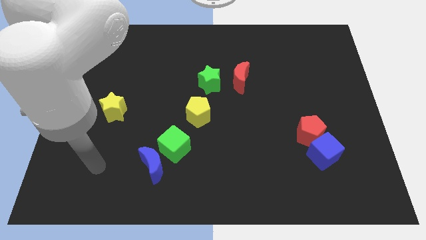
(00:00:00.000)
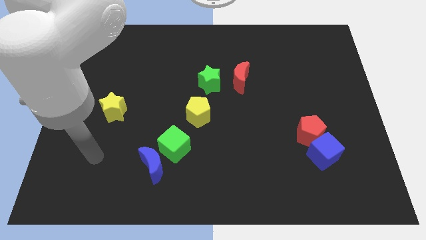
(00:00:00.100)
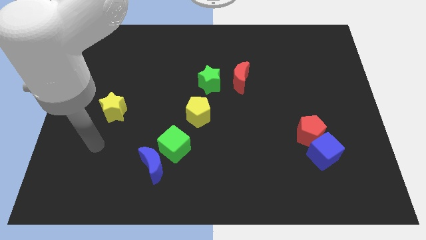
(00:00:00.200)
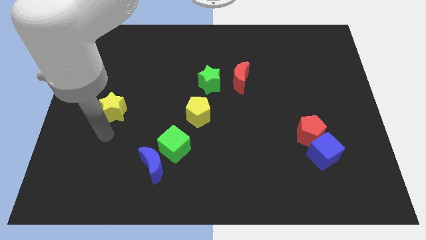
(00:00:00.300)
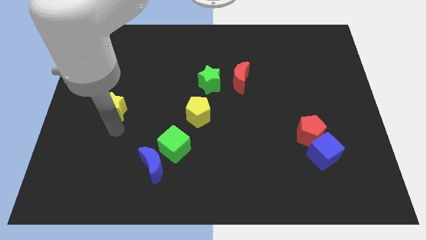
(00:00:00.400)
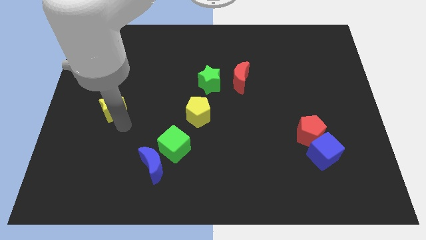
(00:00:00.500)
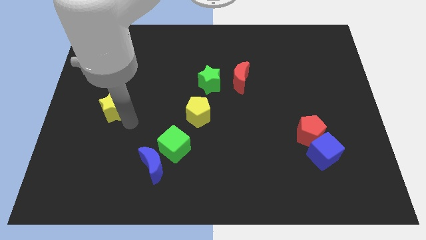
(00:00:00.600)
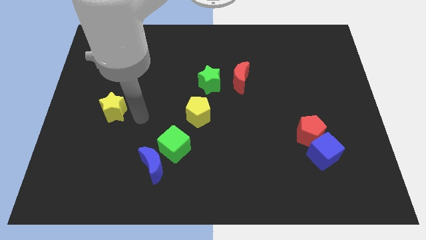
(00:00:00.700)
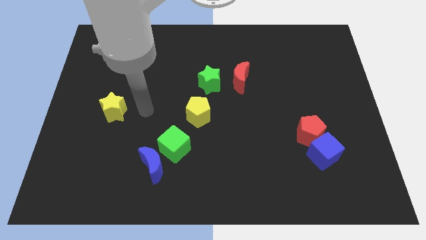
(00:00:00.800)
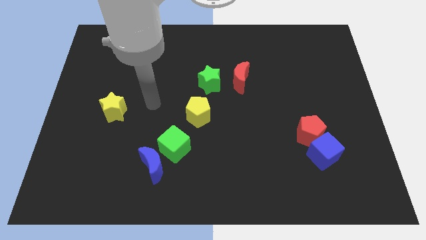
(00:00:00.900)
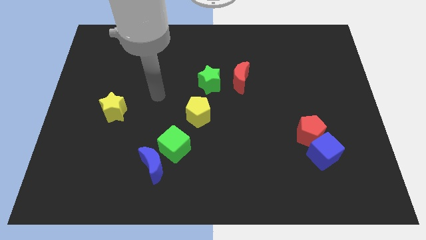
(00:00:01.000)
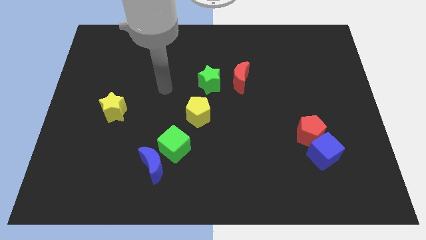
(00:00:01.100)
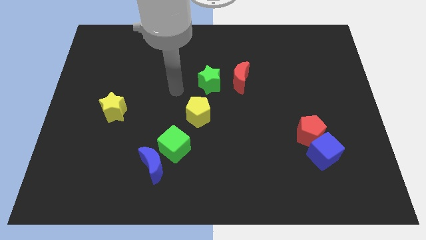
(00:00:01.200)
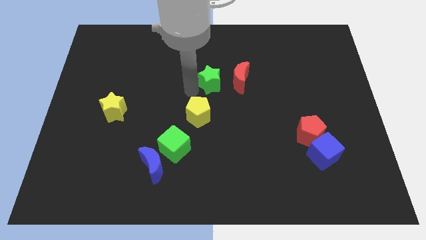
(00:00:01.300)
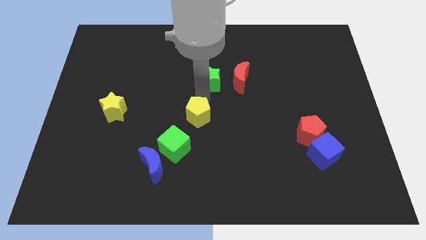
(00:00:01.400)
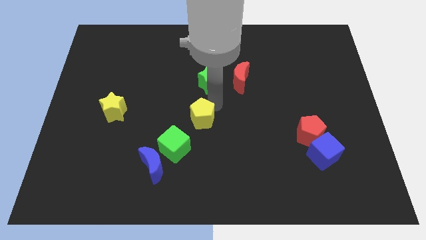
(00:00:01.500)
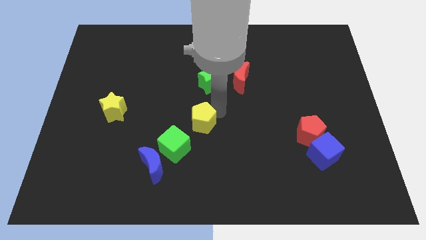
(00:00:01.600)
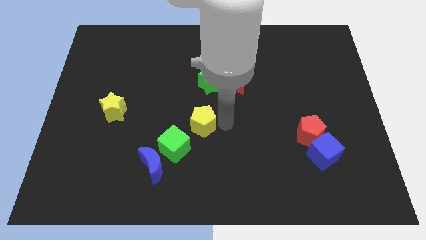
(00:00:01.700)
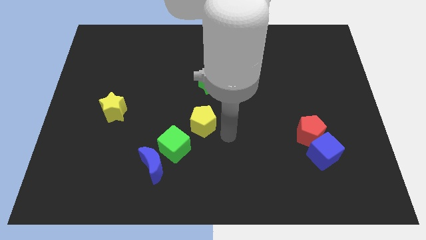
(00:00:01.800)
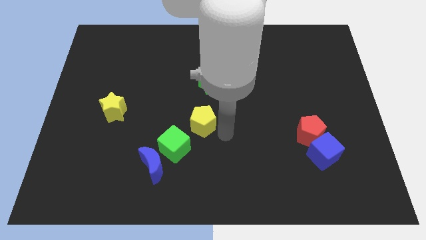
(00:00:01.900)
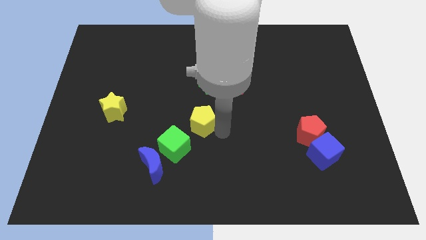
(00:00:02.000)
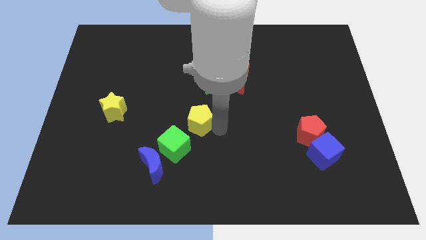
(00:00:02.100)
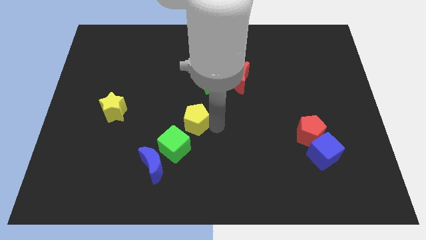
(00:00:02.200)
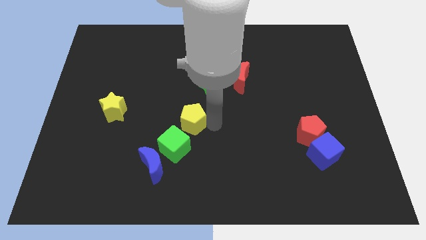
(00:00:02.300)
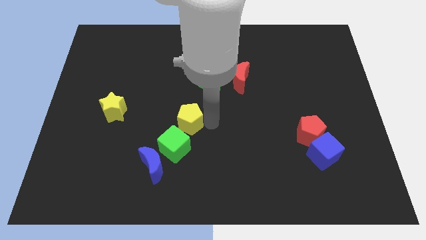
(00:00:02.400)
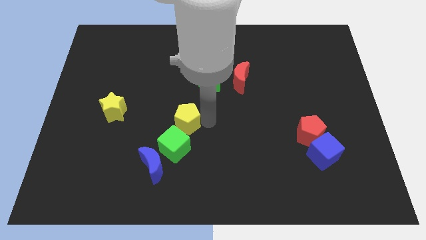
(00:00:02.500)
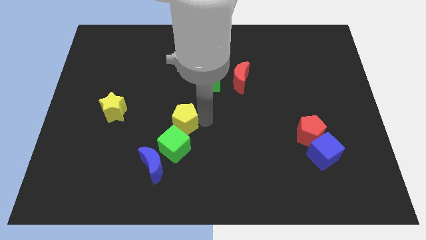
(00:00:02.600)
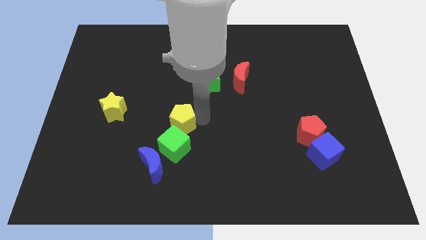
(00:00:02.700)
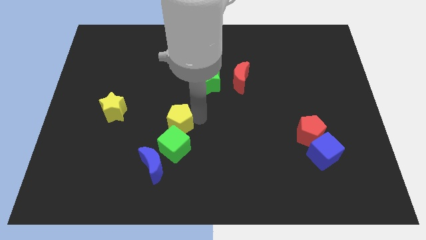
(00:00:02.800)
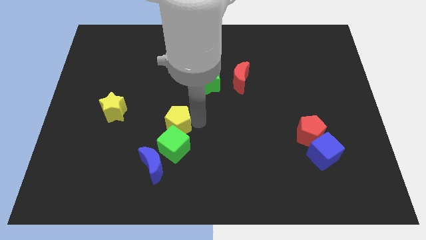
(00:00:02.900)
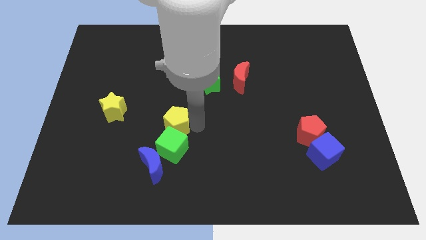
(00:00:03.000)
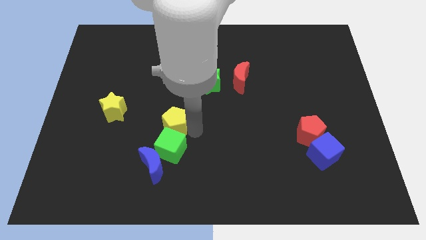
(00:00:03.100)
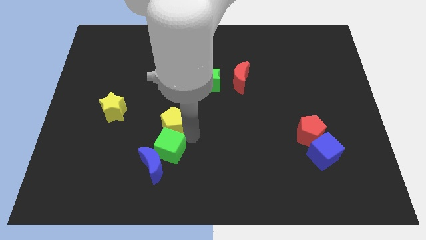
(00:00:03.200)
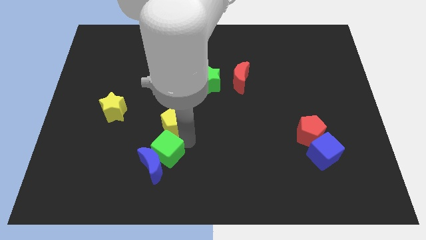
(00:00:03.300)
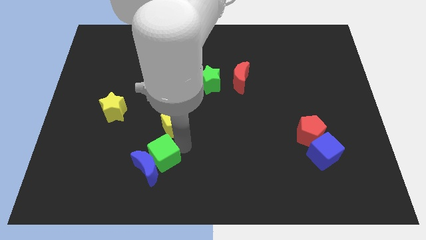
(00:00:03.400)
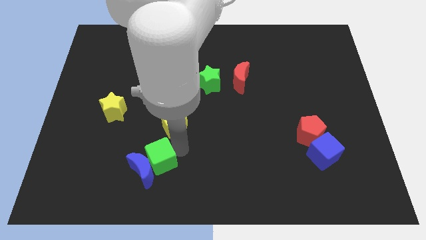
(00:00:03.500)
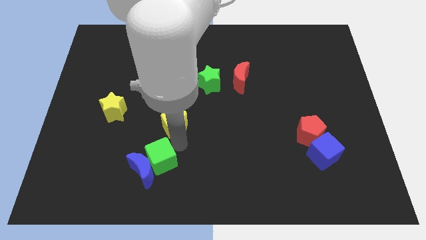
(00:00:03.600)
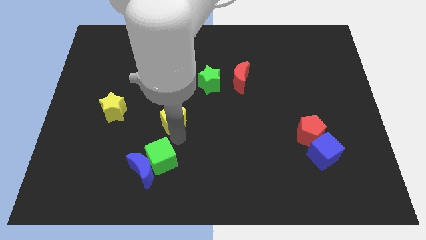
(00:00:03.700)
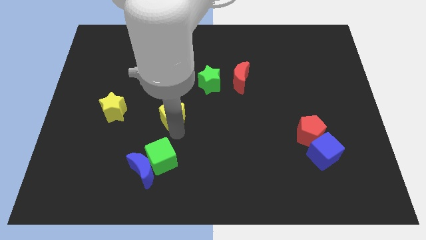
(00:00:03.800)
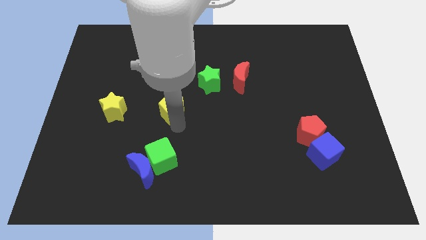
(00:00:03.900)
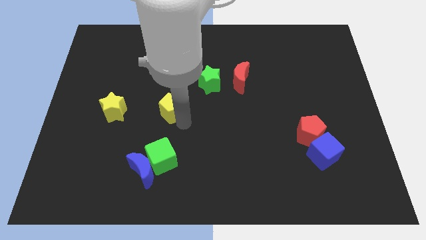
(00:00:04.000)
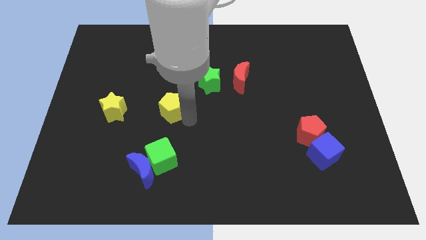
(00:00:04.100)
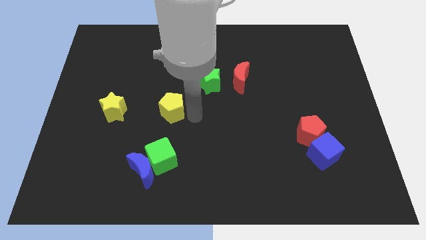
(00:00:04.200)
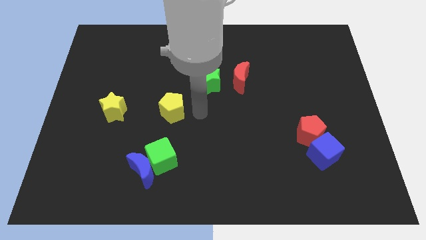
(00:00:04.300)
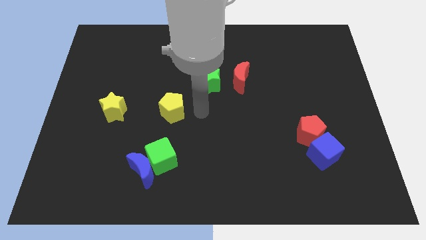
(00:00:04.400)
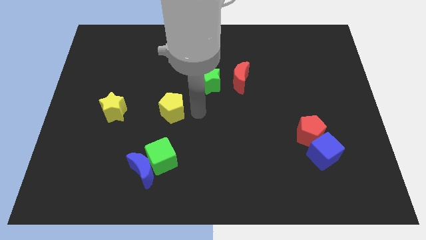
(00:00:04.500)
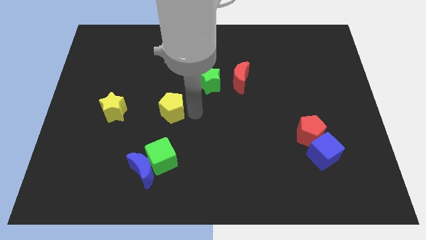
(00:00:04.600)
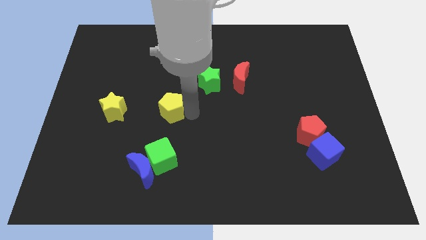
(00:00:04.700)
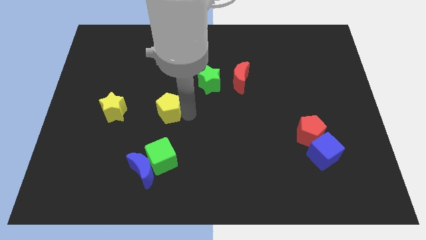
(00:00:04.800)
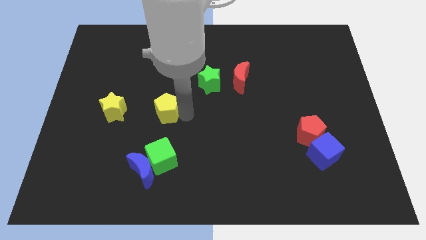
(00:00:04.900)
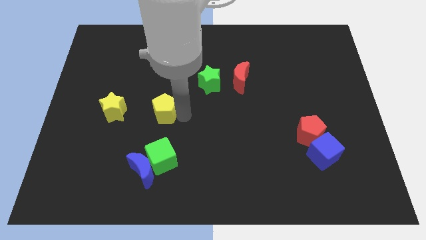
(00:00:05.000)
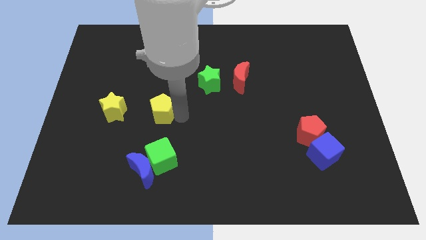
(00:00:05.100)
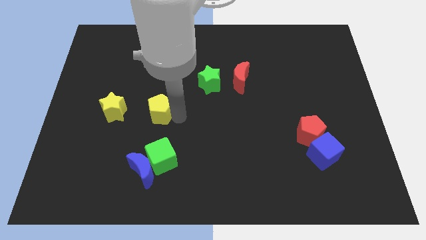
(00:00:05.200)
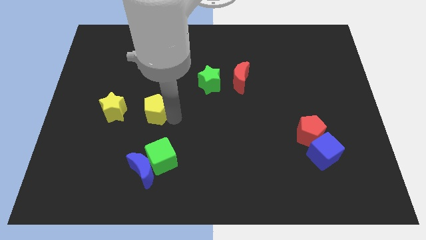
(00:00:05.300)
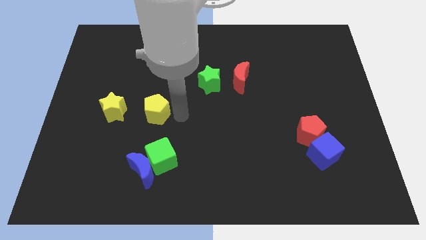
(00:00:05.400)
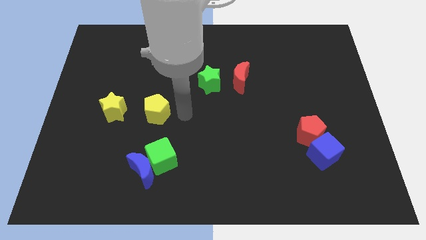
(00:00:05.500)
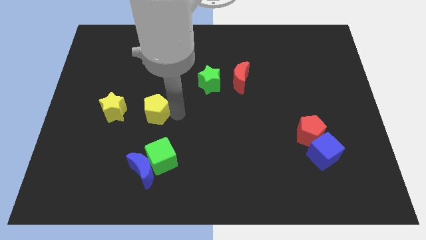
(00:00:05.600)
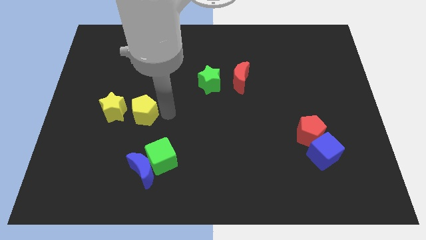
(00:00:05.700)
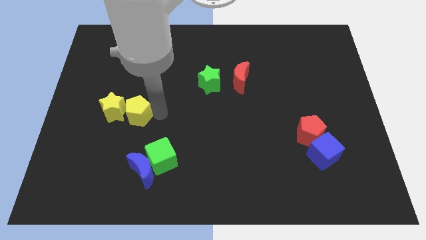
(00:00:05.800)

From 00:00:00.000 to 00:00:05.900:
put the yellow pentagon to the yellow star

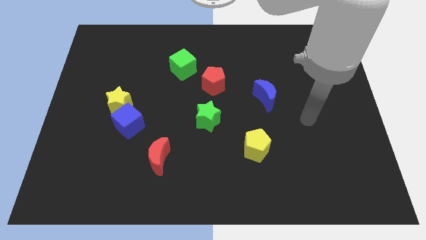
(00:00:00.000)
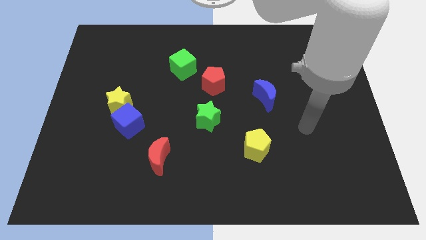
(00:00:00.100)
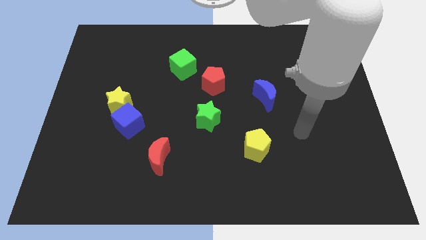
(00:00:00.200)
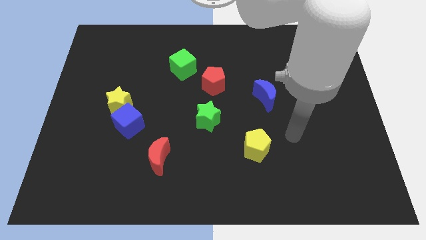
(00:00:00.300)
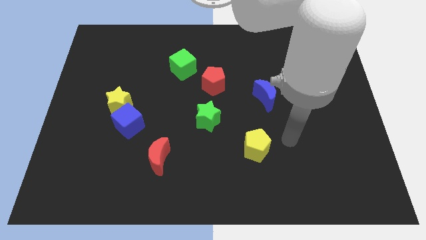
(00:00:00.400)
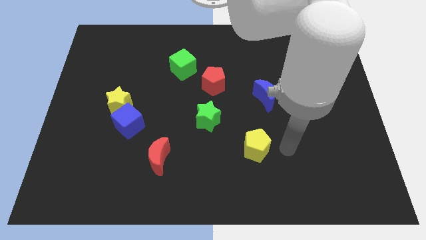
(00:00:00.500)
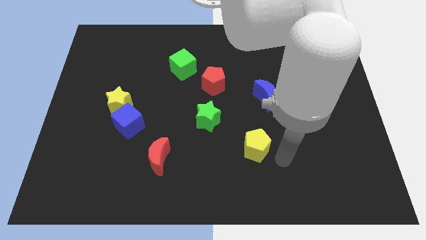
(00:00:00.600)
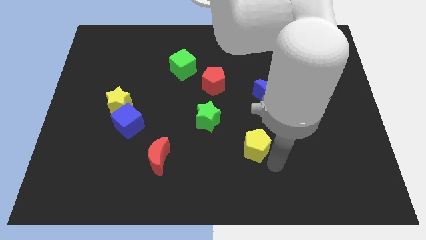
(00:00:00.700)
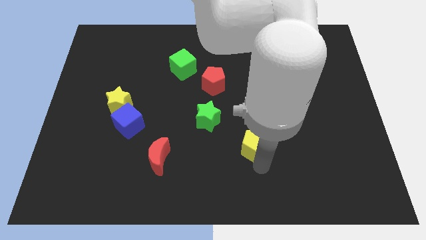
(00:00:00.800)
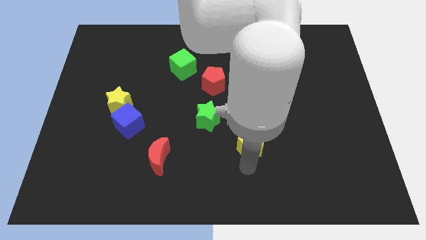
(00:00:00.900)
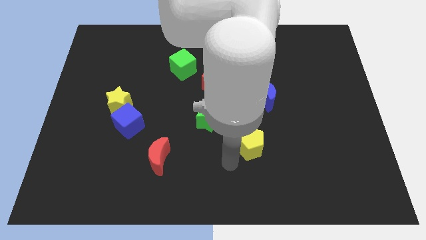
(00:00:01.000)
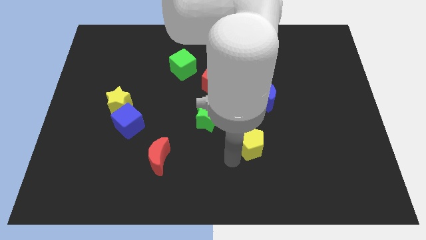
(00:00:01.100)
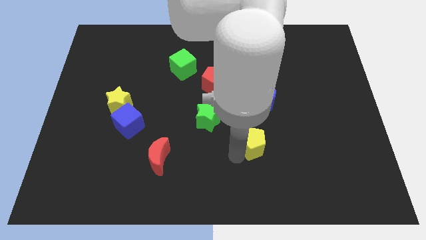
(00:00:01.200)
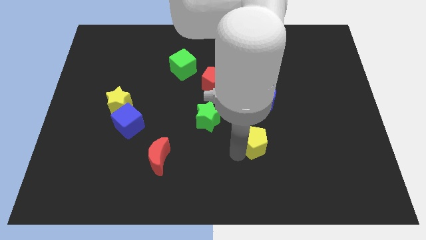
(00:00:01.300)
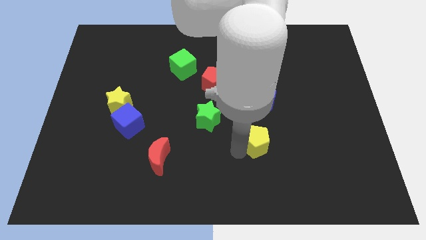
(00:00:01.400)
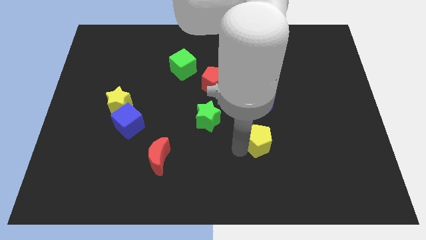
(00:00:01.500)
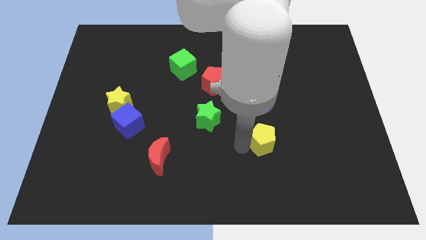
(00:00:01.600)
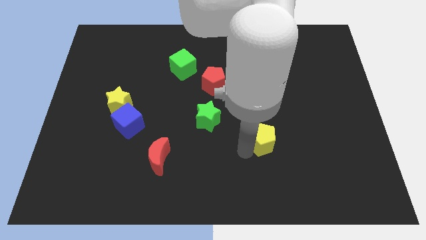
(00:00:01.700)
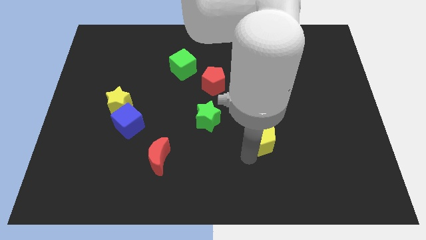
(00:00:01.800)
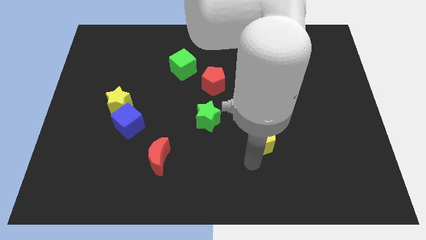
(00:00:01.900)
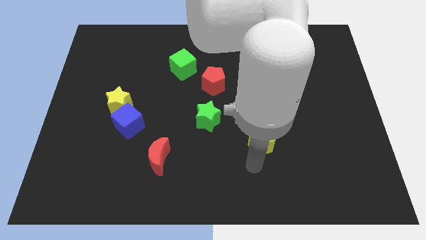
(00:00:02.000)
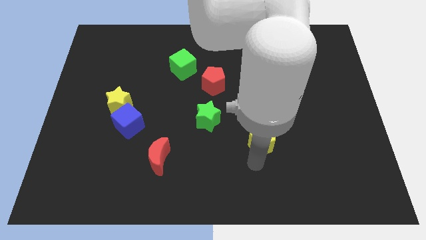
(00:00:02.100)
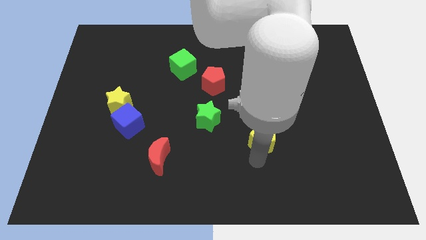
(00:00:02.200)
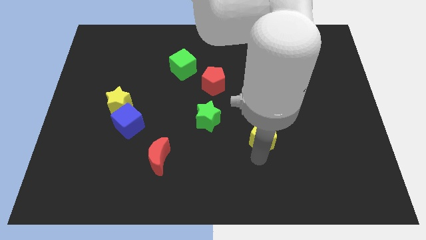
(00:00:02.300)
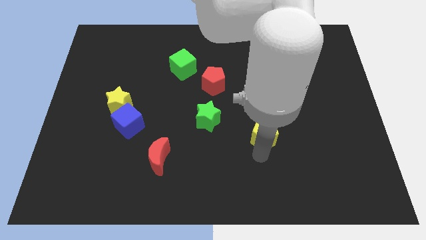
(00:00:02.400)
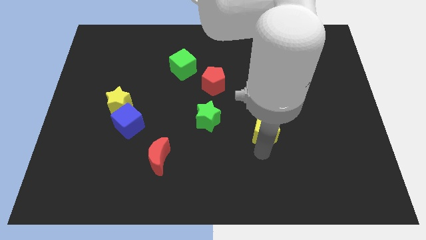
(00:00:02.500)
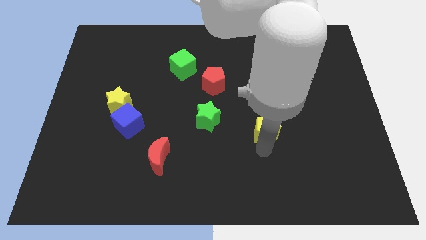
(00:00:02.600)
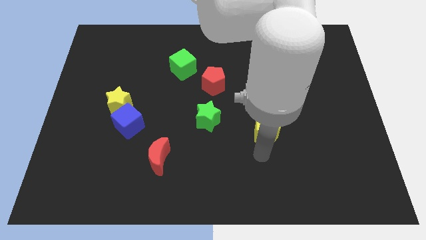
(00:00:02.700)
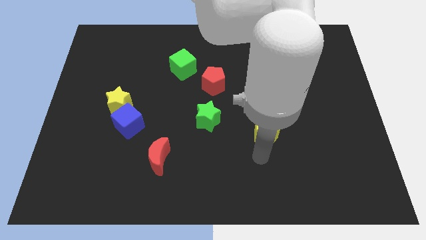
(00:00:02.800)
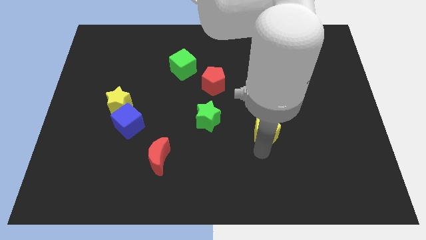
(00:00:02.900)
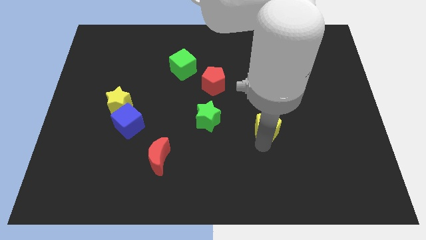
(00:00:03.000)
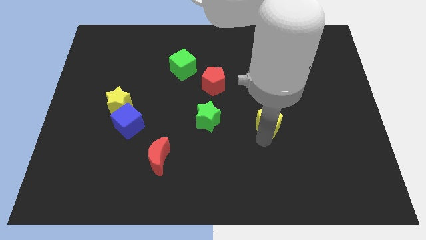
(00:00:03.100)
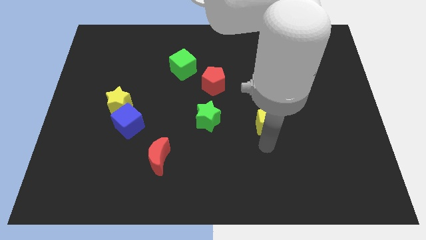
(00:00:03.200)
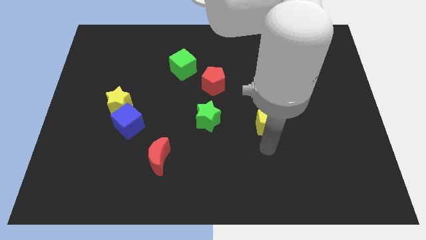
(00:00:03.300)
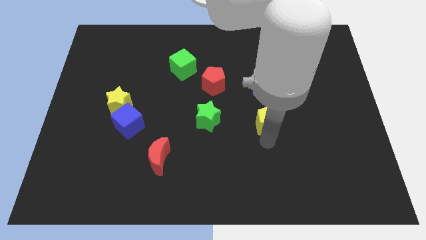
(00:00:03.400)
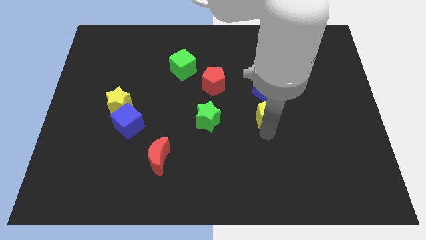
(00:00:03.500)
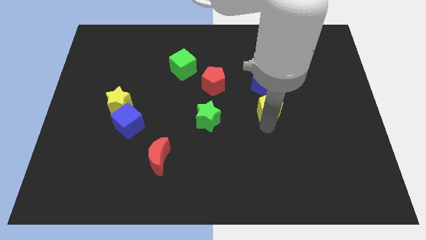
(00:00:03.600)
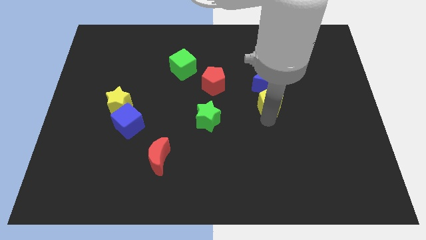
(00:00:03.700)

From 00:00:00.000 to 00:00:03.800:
push the yellow pentagon to the blue moon
